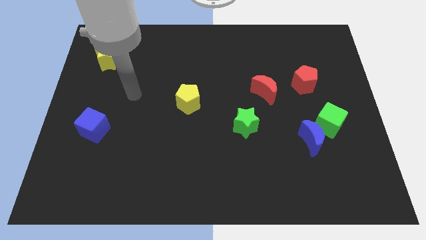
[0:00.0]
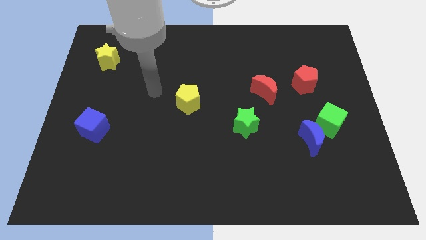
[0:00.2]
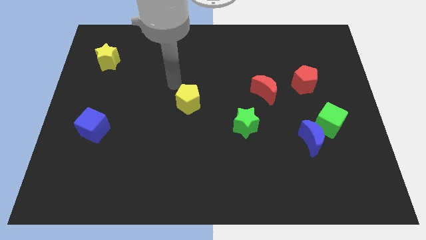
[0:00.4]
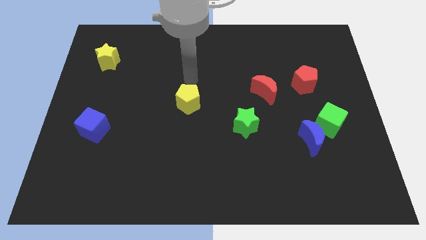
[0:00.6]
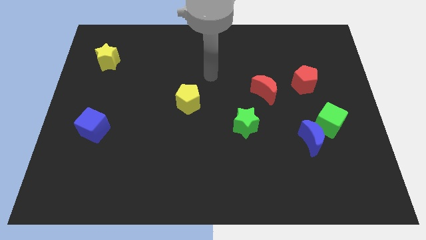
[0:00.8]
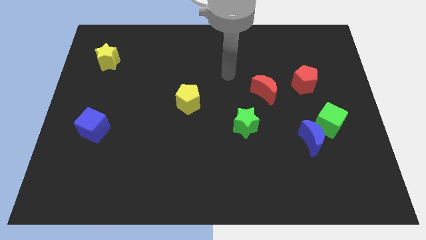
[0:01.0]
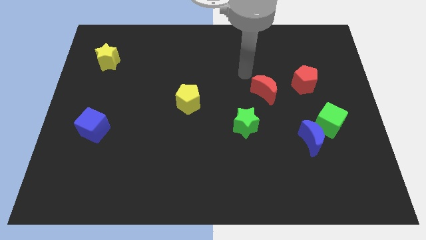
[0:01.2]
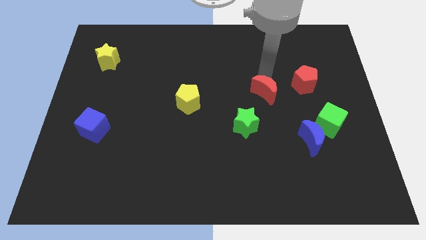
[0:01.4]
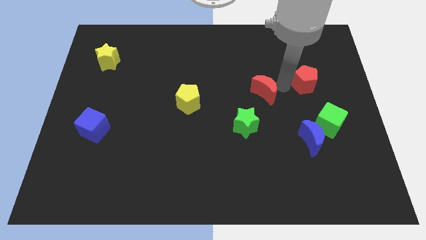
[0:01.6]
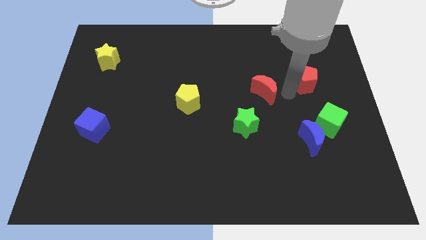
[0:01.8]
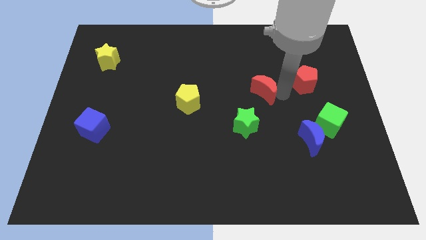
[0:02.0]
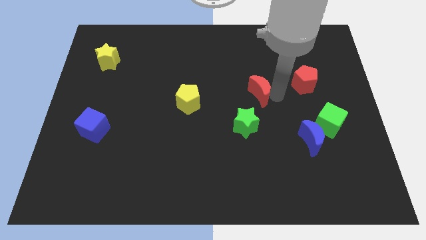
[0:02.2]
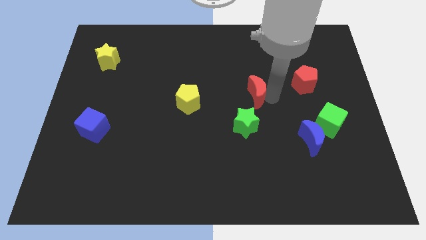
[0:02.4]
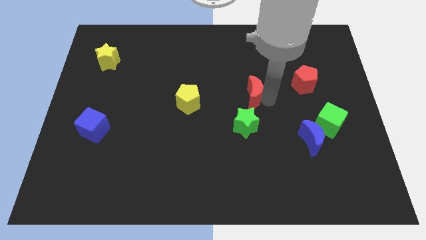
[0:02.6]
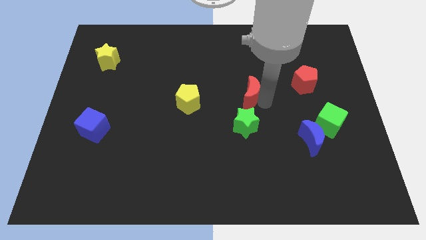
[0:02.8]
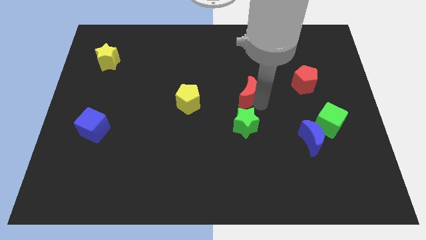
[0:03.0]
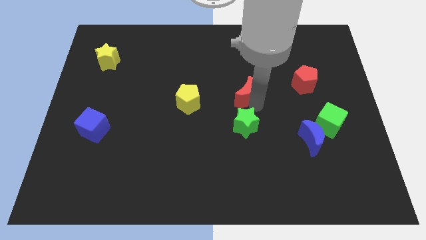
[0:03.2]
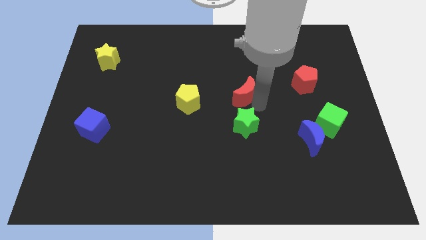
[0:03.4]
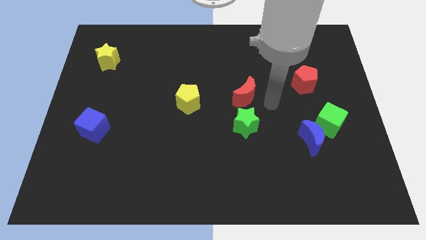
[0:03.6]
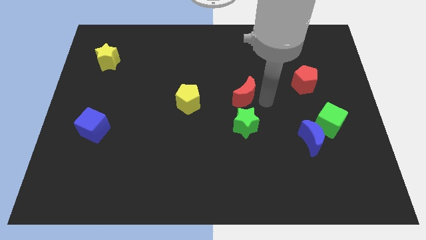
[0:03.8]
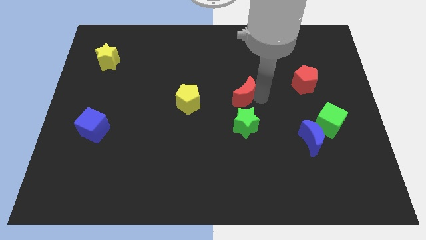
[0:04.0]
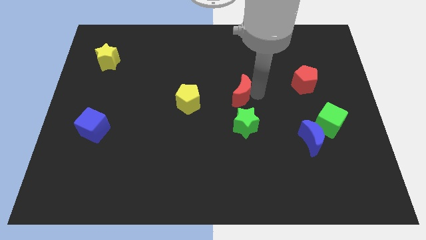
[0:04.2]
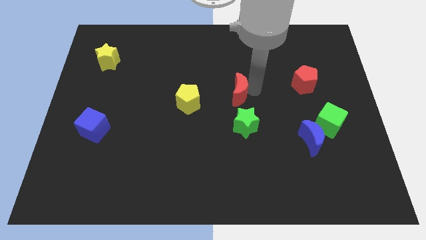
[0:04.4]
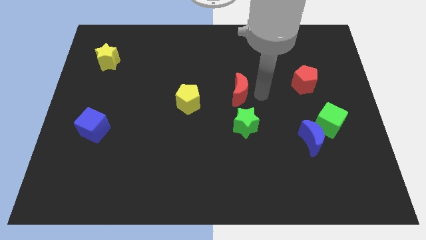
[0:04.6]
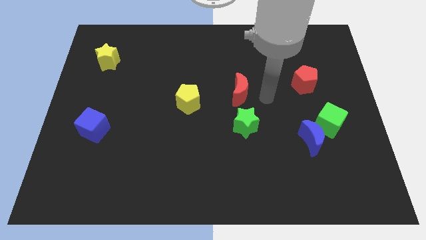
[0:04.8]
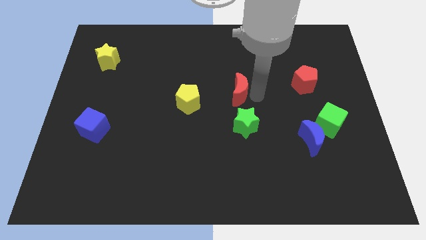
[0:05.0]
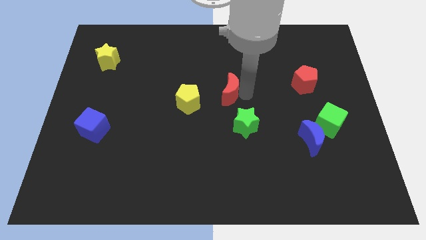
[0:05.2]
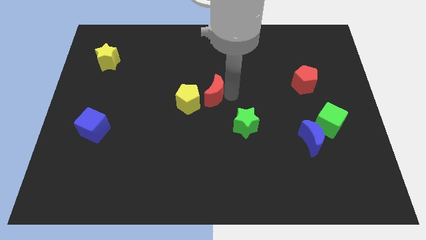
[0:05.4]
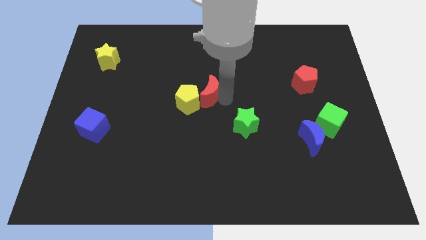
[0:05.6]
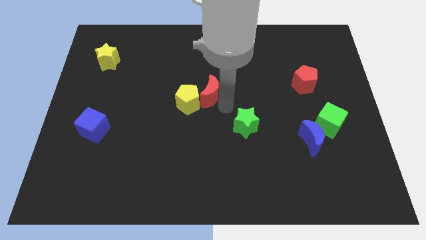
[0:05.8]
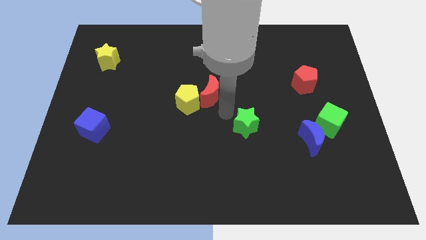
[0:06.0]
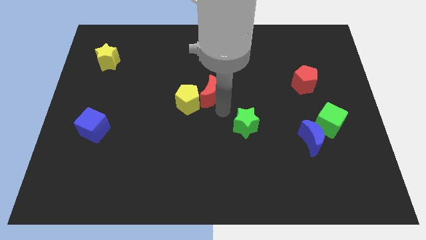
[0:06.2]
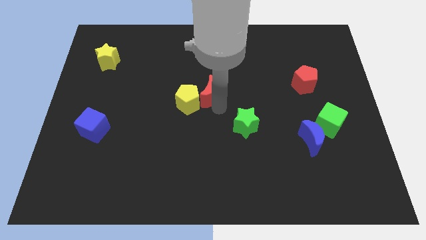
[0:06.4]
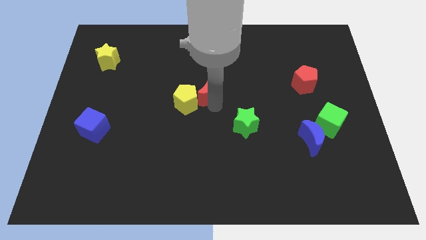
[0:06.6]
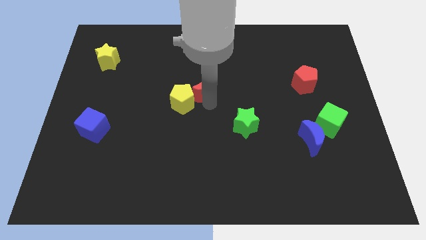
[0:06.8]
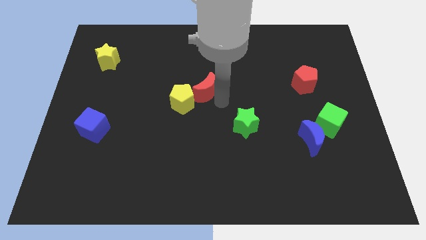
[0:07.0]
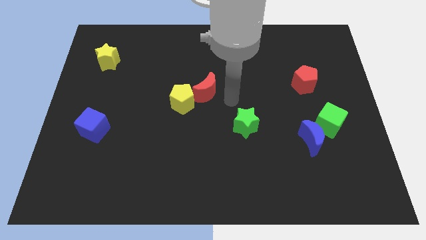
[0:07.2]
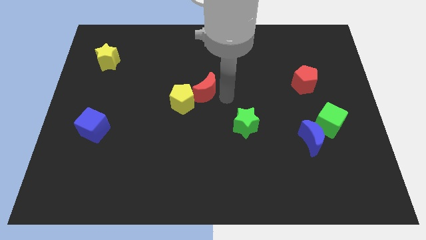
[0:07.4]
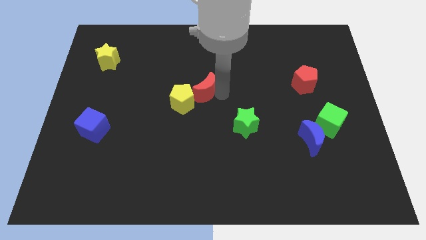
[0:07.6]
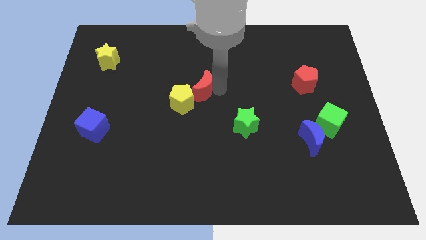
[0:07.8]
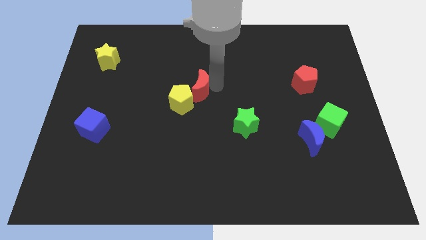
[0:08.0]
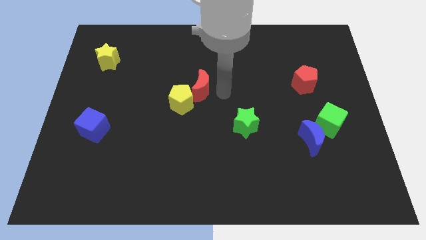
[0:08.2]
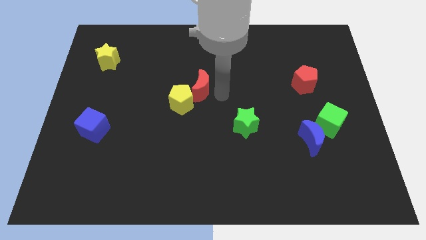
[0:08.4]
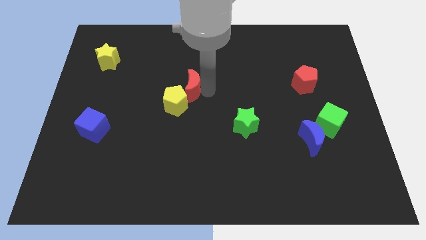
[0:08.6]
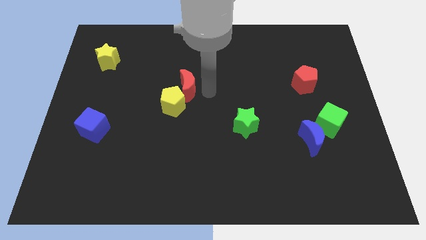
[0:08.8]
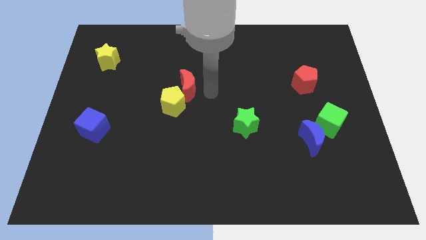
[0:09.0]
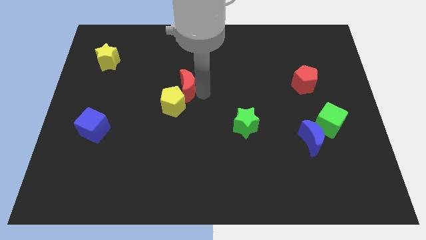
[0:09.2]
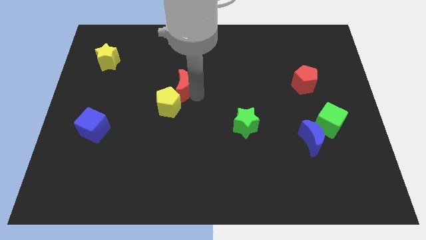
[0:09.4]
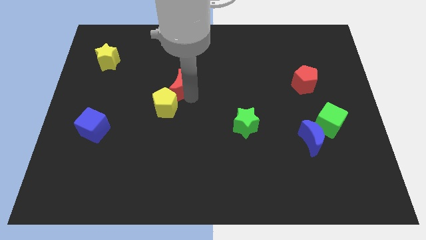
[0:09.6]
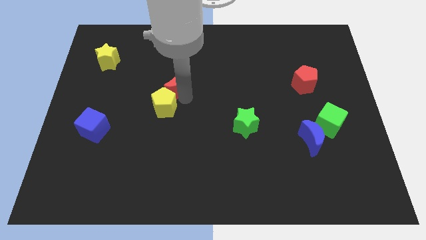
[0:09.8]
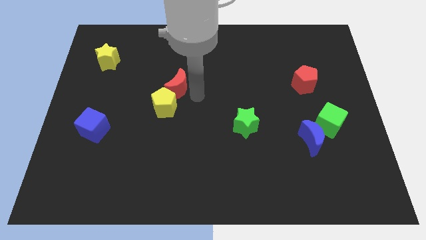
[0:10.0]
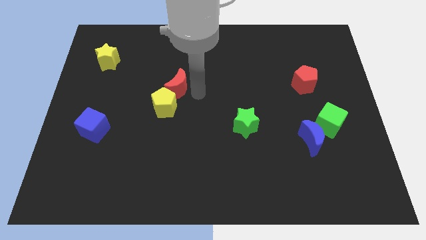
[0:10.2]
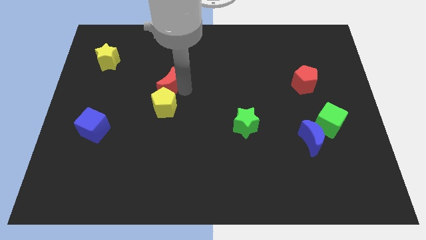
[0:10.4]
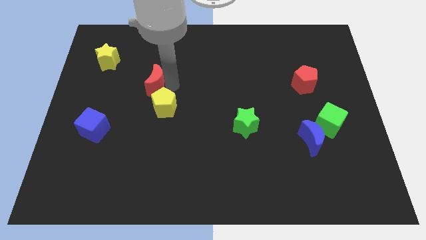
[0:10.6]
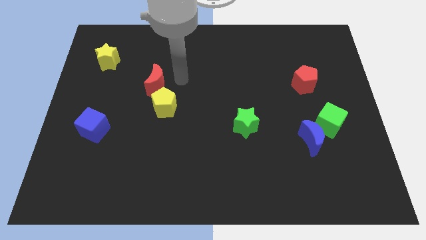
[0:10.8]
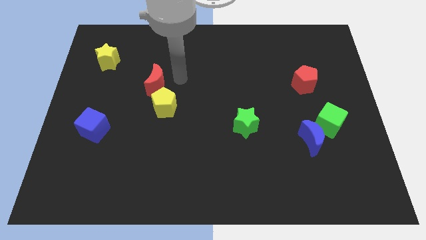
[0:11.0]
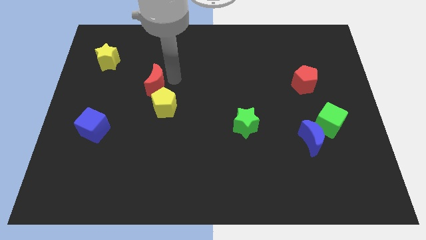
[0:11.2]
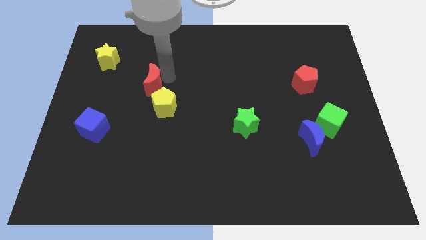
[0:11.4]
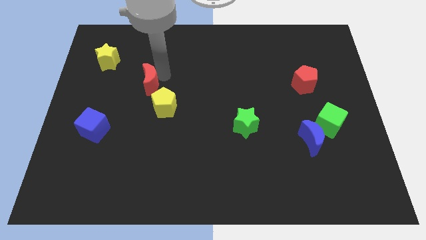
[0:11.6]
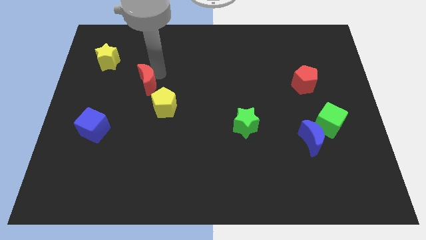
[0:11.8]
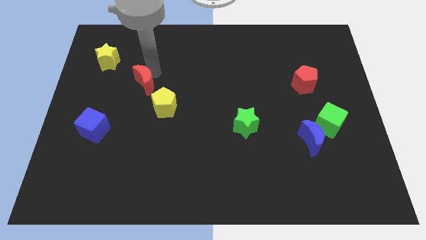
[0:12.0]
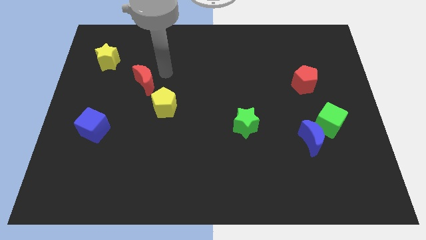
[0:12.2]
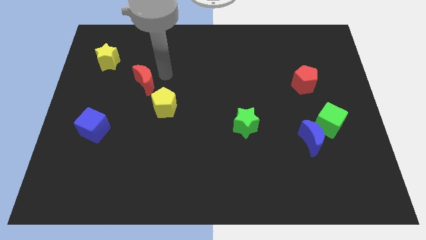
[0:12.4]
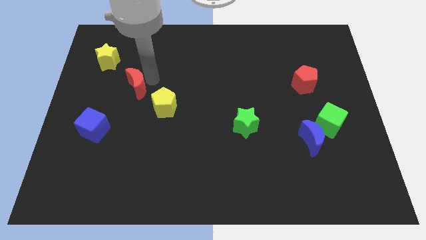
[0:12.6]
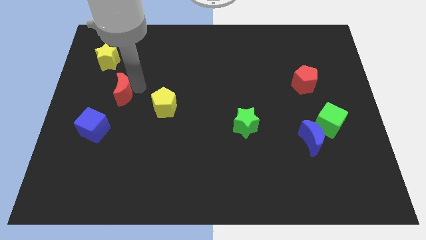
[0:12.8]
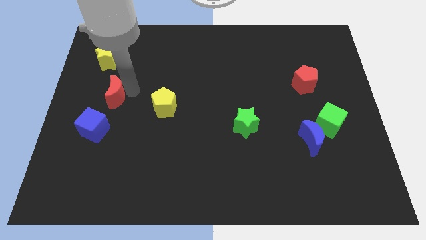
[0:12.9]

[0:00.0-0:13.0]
move the red moon to the top side of the blue cube

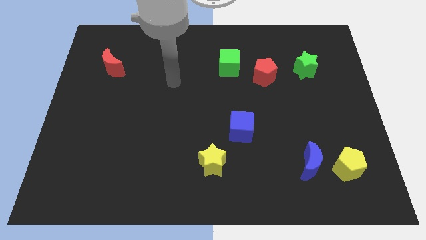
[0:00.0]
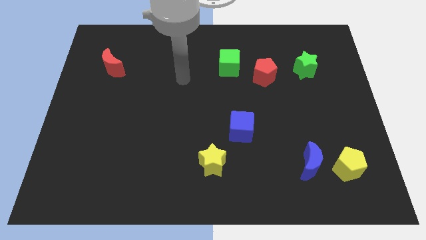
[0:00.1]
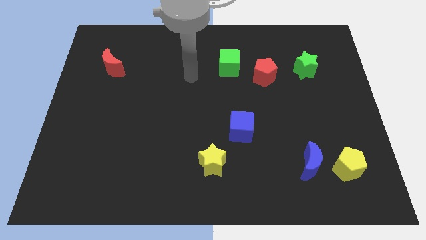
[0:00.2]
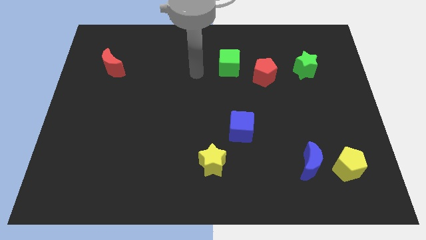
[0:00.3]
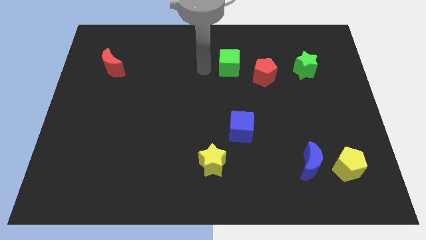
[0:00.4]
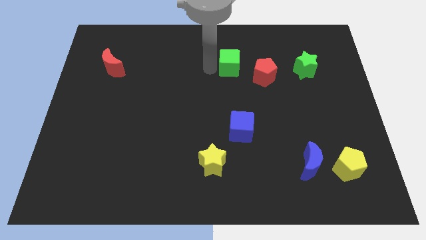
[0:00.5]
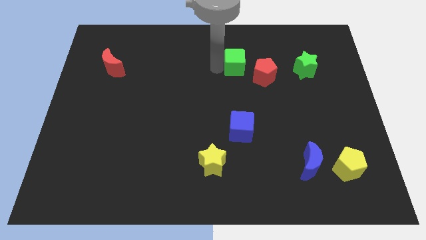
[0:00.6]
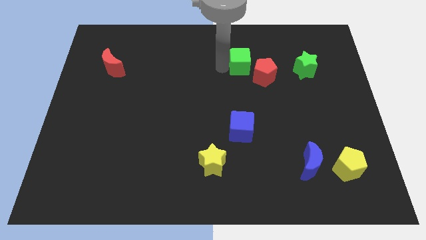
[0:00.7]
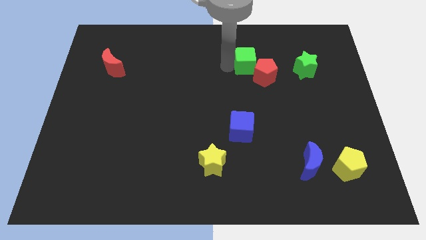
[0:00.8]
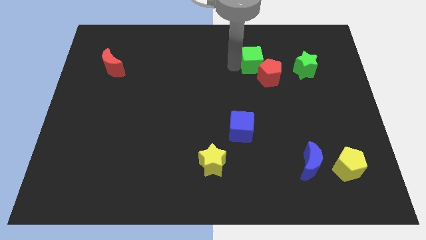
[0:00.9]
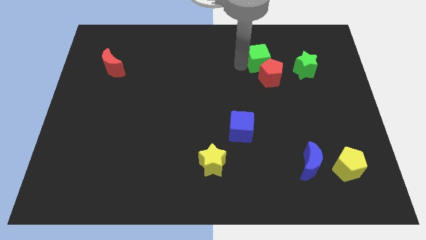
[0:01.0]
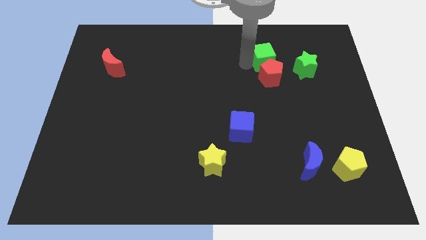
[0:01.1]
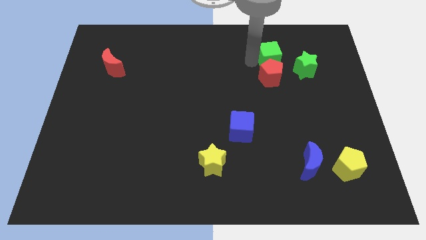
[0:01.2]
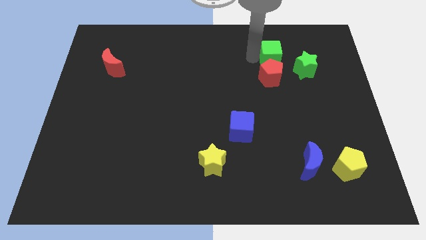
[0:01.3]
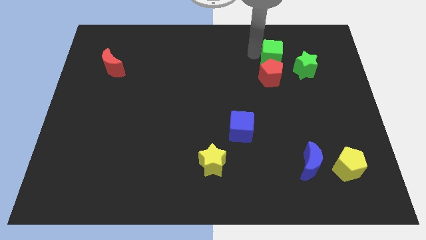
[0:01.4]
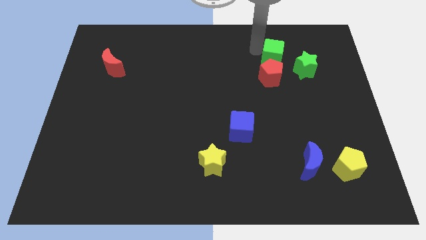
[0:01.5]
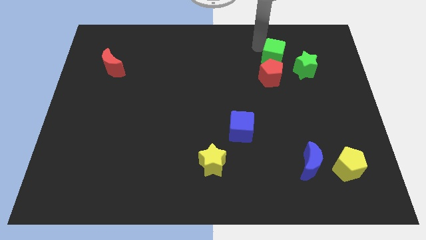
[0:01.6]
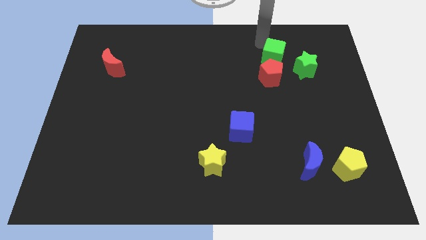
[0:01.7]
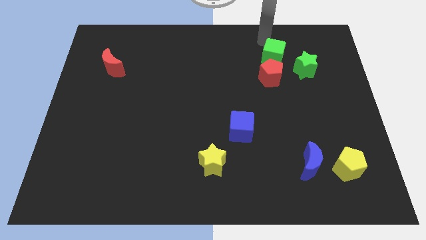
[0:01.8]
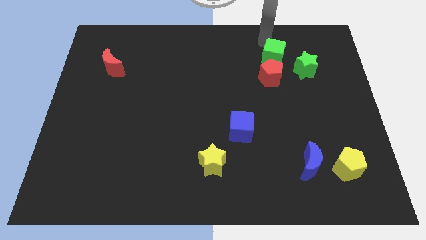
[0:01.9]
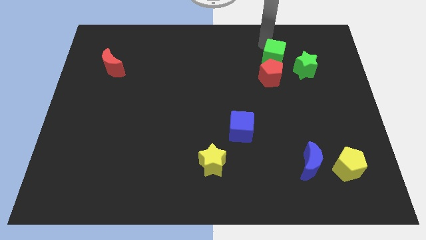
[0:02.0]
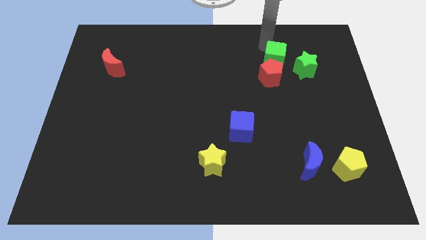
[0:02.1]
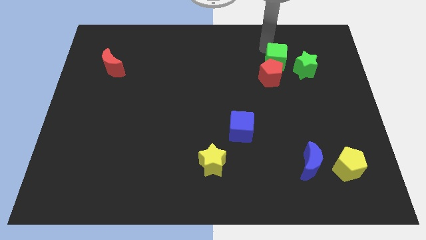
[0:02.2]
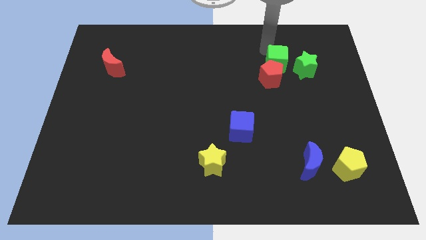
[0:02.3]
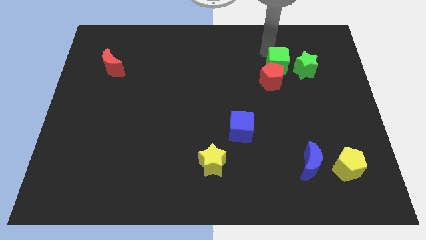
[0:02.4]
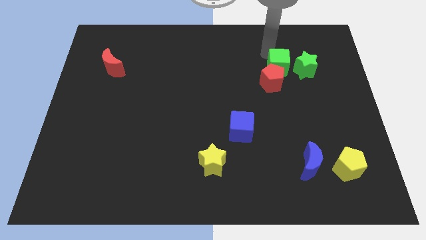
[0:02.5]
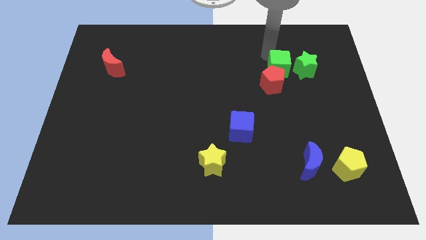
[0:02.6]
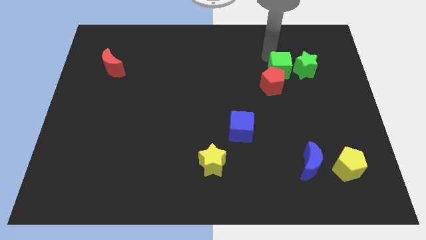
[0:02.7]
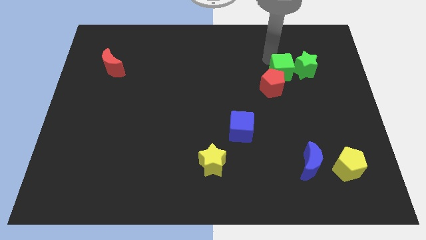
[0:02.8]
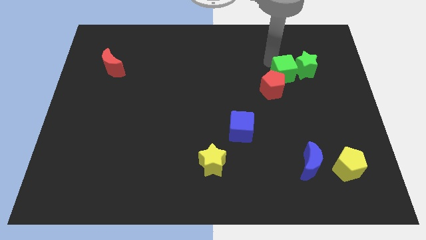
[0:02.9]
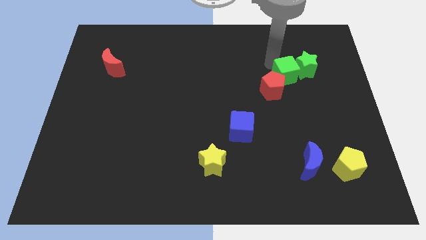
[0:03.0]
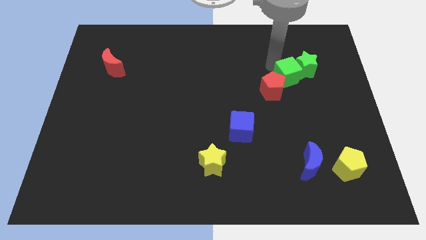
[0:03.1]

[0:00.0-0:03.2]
push the green cube right of the red pentagon
